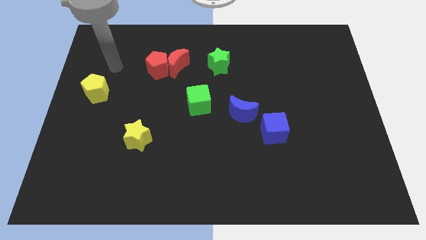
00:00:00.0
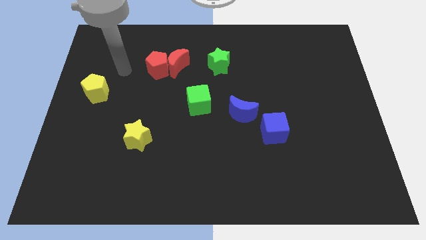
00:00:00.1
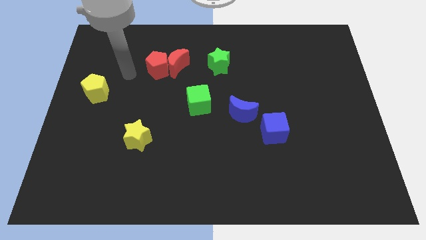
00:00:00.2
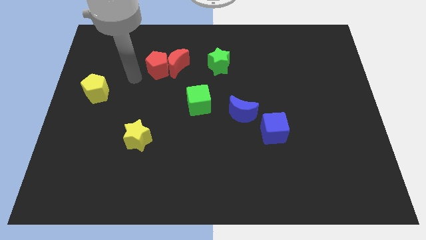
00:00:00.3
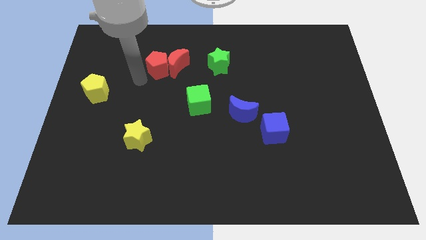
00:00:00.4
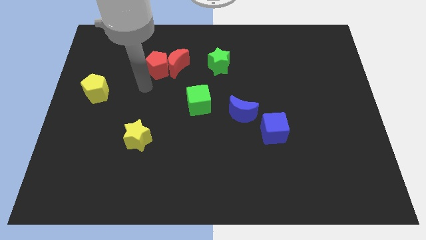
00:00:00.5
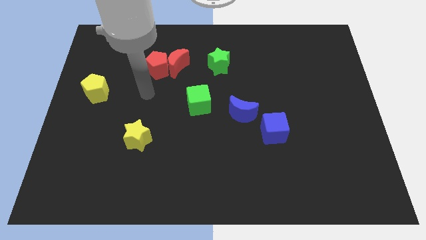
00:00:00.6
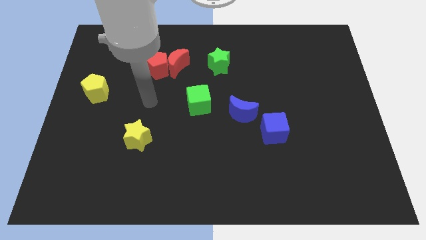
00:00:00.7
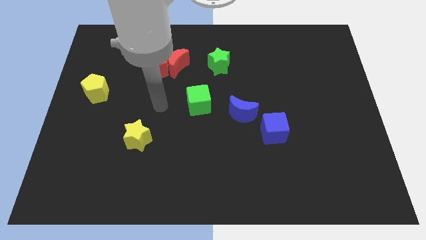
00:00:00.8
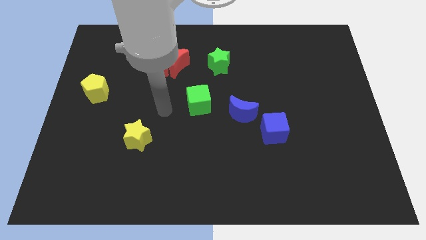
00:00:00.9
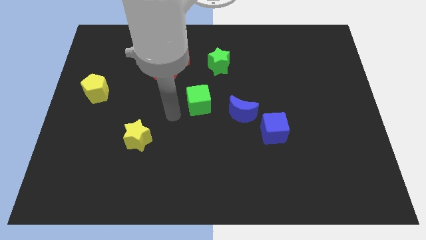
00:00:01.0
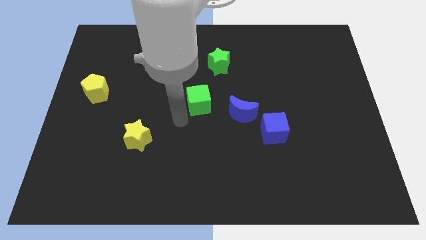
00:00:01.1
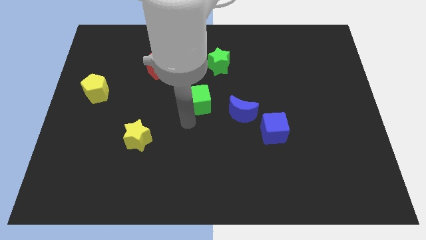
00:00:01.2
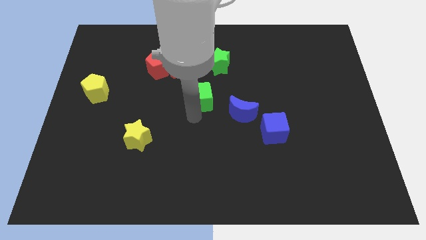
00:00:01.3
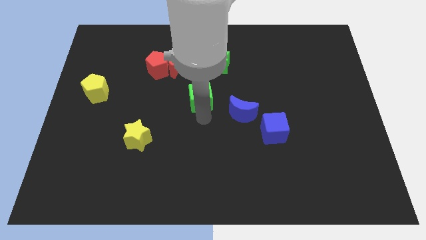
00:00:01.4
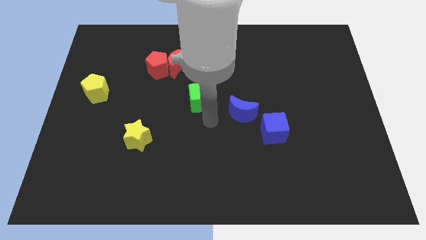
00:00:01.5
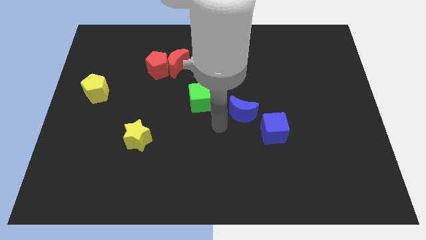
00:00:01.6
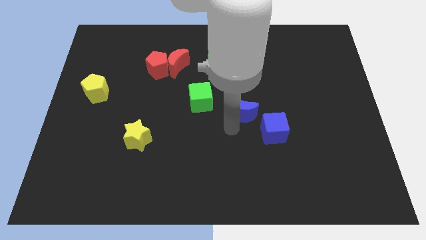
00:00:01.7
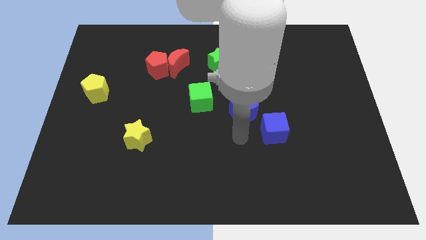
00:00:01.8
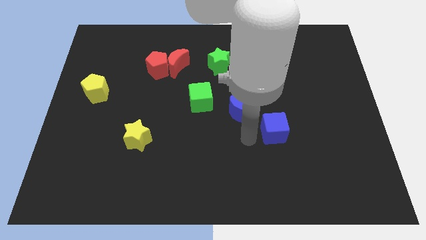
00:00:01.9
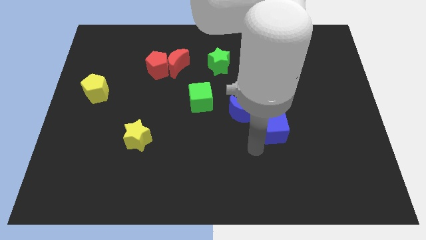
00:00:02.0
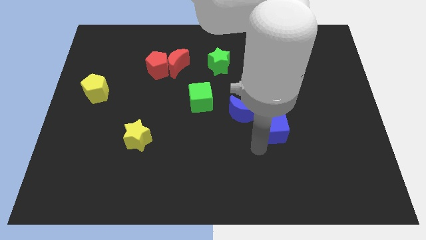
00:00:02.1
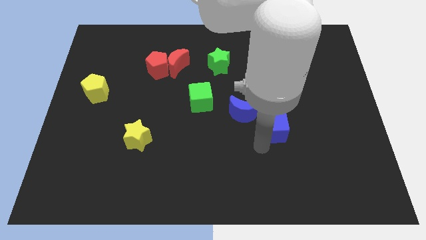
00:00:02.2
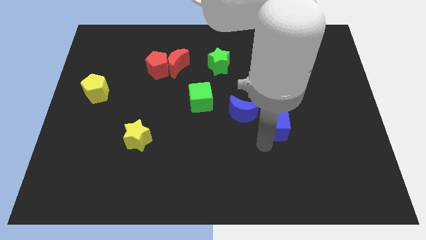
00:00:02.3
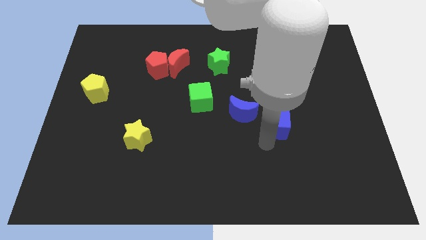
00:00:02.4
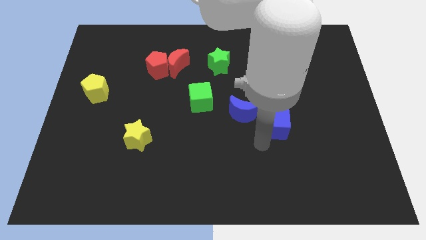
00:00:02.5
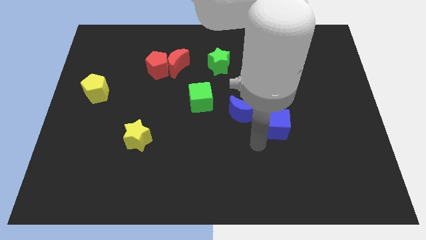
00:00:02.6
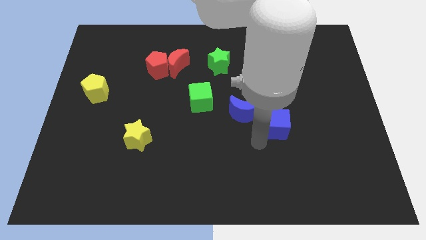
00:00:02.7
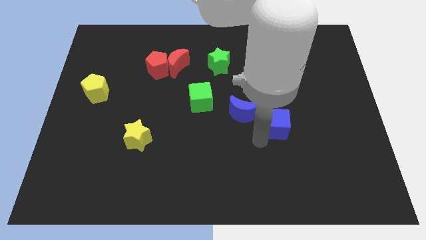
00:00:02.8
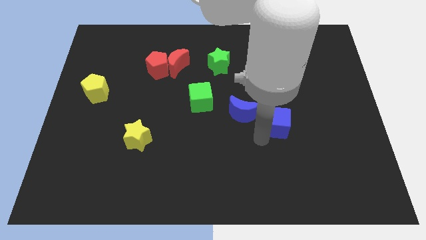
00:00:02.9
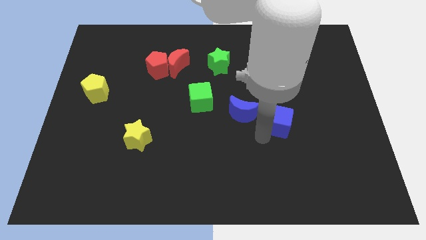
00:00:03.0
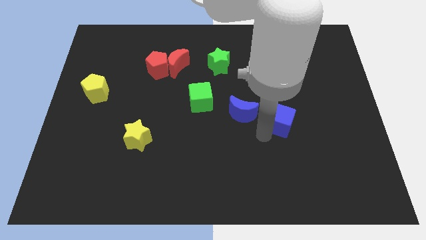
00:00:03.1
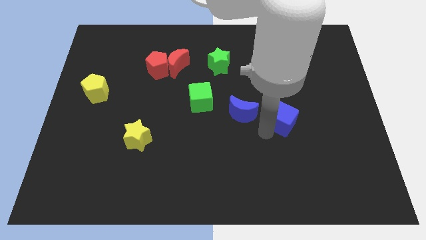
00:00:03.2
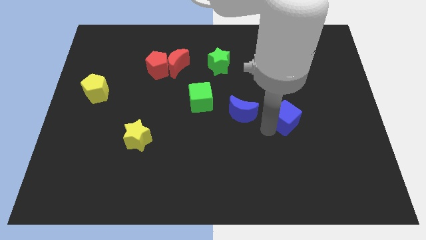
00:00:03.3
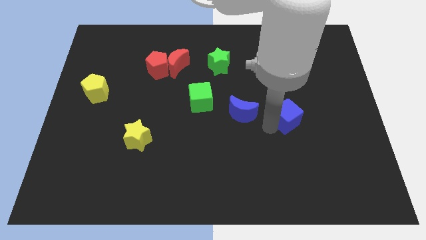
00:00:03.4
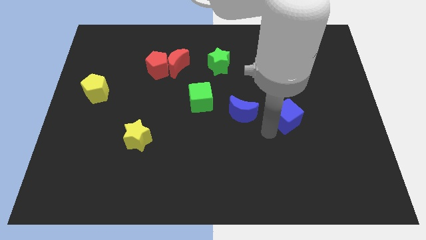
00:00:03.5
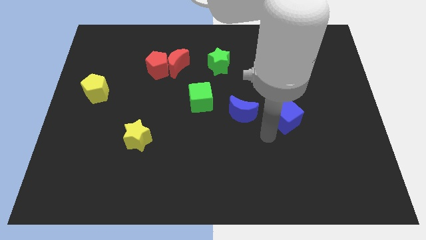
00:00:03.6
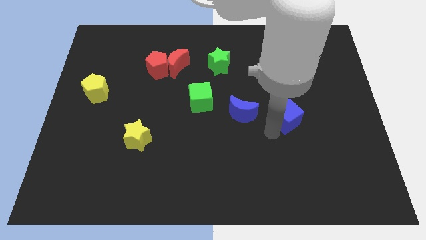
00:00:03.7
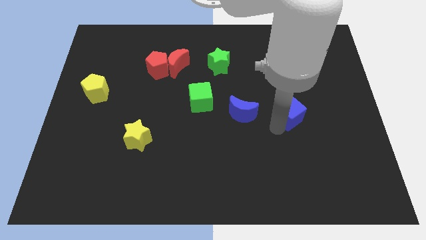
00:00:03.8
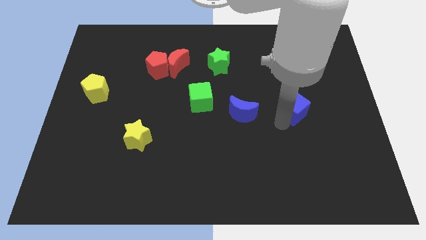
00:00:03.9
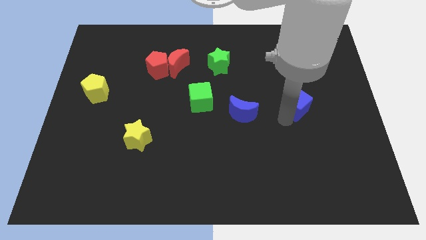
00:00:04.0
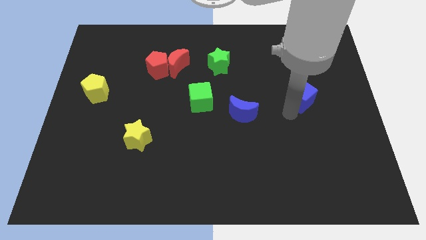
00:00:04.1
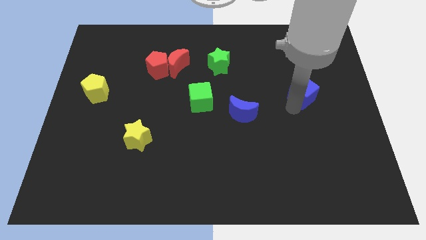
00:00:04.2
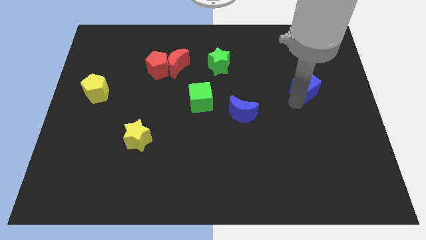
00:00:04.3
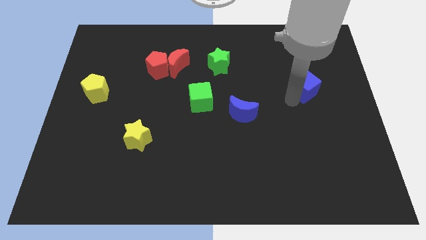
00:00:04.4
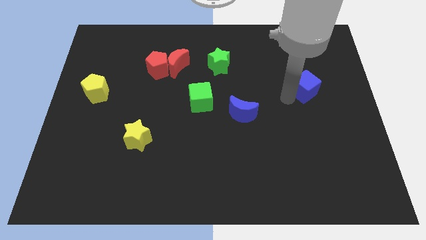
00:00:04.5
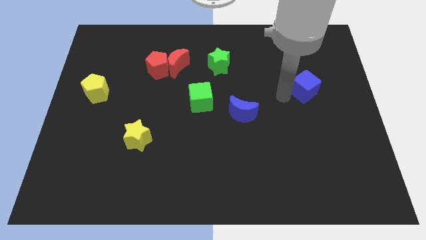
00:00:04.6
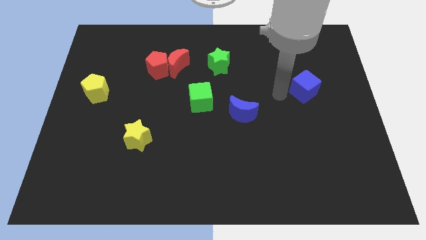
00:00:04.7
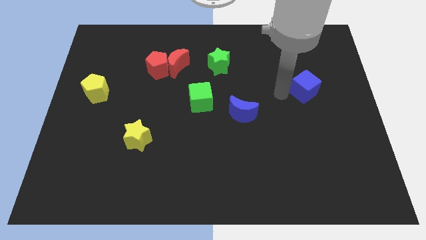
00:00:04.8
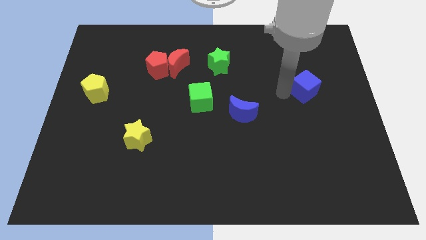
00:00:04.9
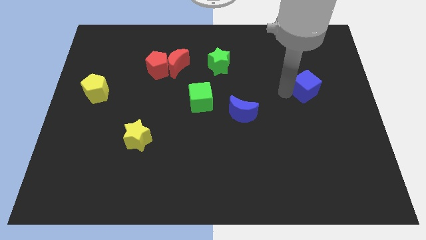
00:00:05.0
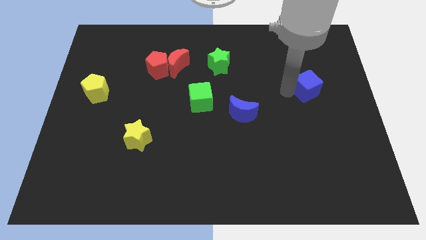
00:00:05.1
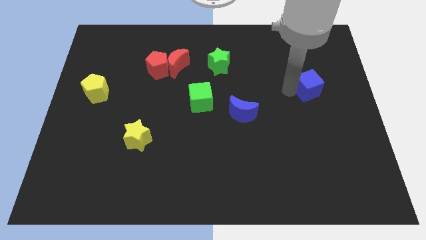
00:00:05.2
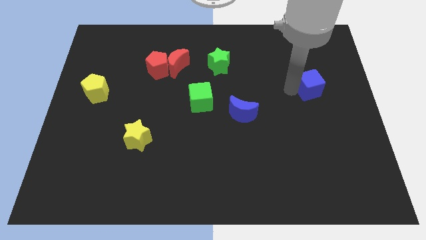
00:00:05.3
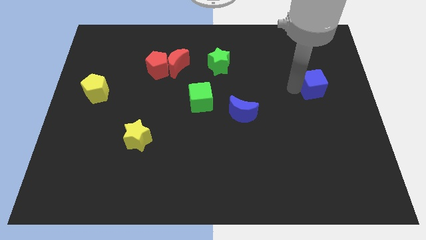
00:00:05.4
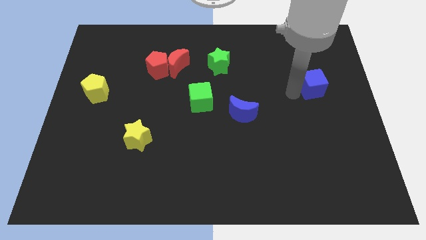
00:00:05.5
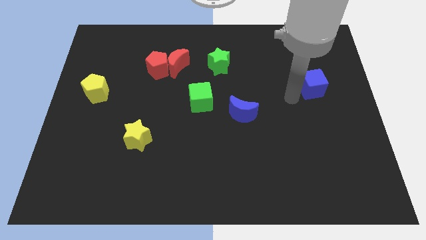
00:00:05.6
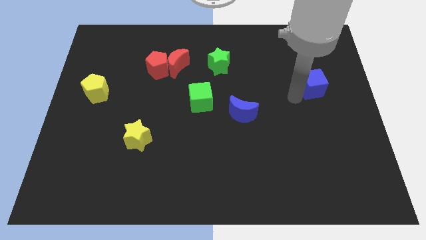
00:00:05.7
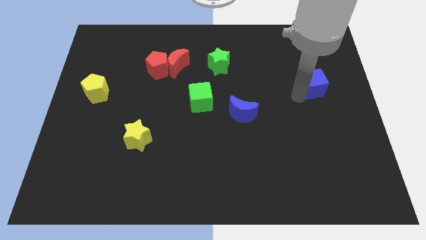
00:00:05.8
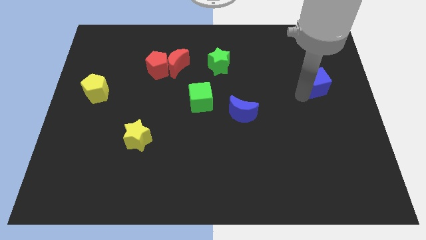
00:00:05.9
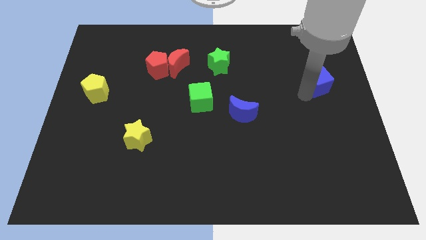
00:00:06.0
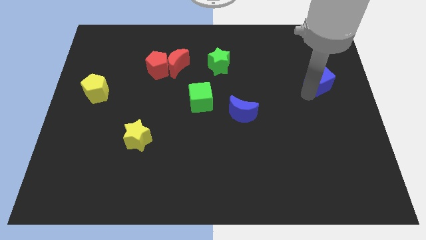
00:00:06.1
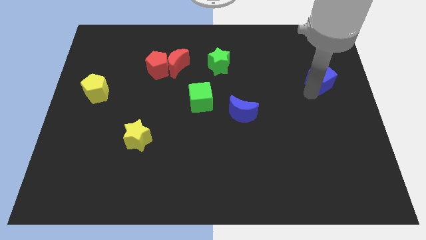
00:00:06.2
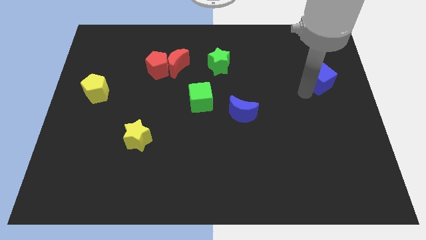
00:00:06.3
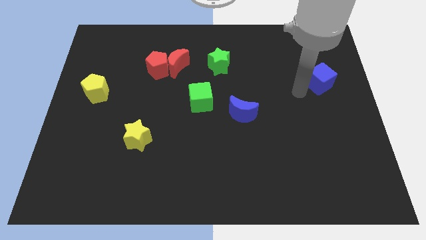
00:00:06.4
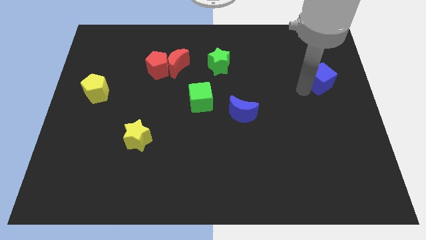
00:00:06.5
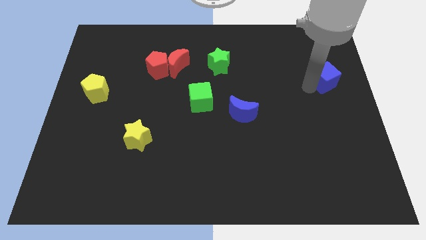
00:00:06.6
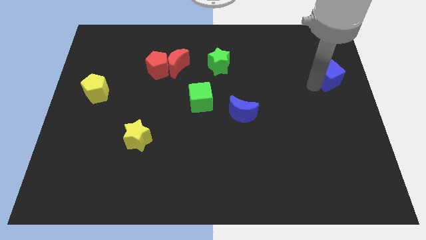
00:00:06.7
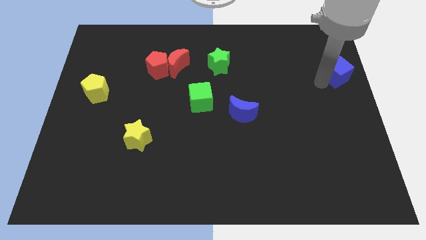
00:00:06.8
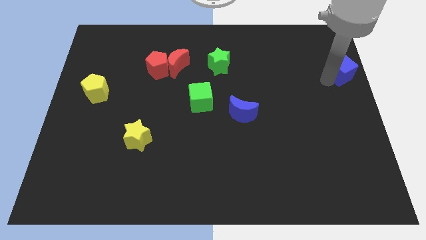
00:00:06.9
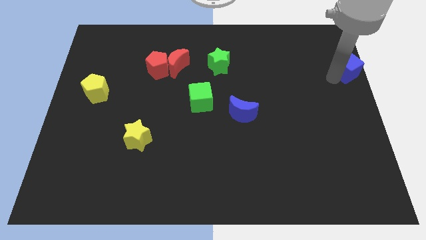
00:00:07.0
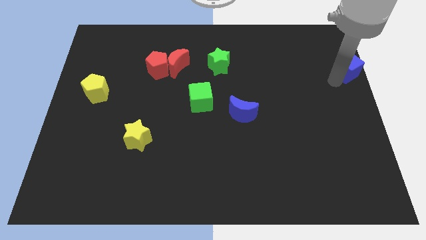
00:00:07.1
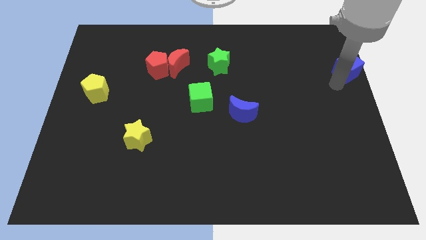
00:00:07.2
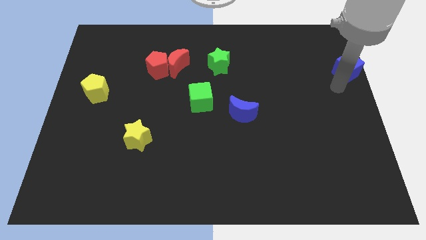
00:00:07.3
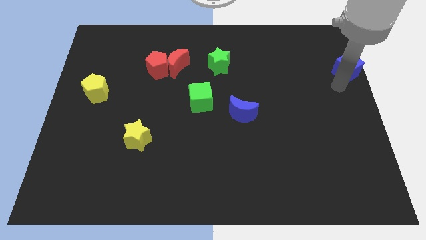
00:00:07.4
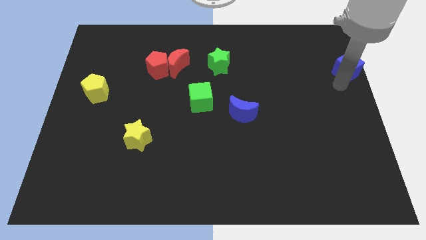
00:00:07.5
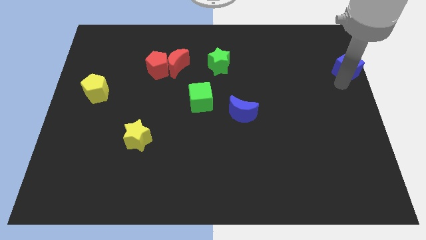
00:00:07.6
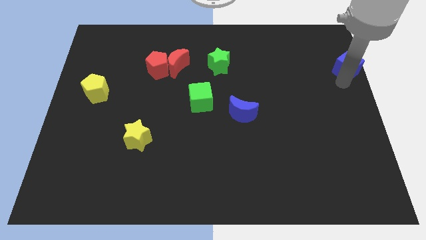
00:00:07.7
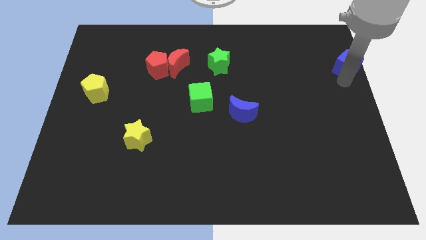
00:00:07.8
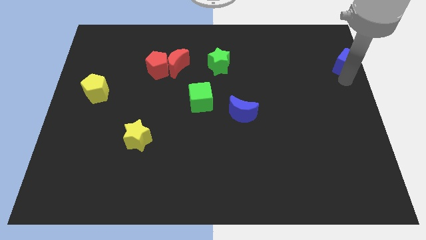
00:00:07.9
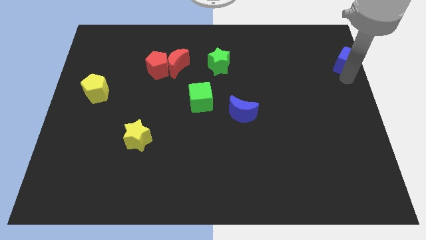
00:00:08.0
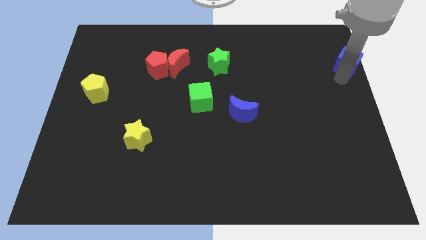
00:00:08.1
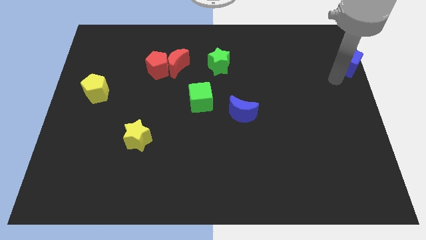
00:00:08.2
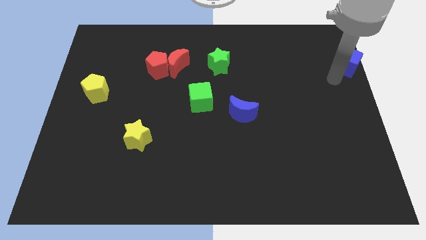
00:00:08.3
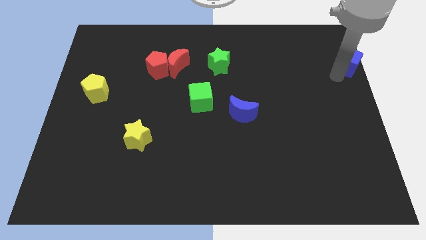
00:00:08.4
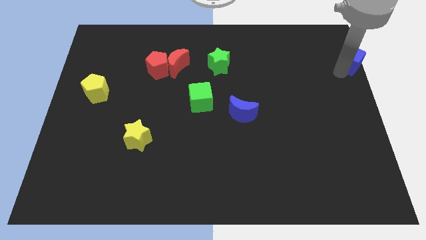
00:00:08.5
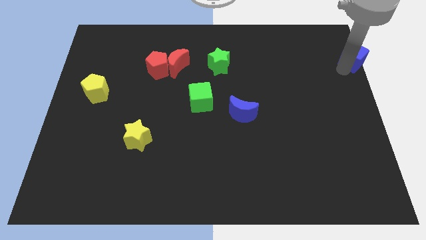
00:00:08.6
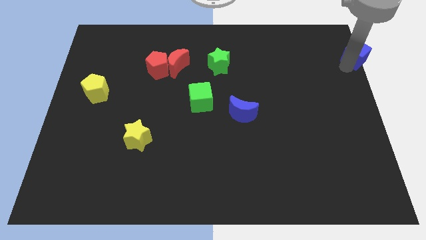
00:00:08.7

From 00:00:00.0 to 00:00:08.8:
slide the blue cube to the top right of the board
